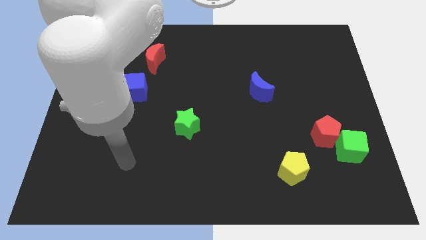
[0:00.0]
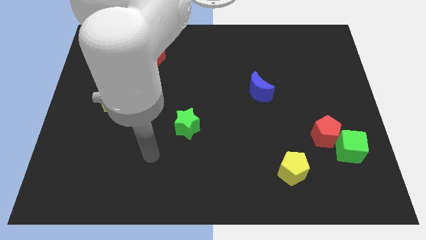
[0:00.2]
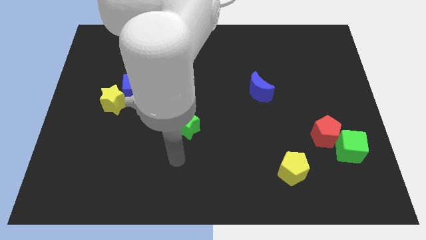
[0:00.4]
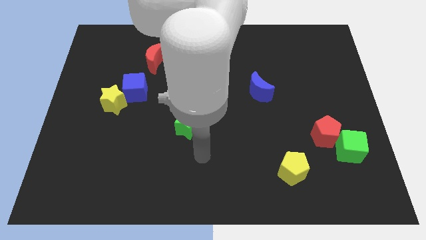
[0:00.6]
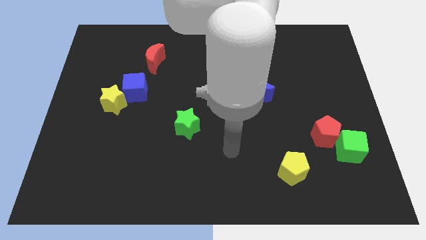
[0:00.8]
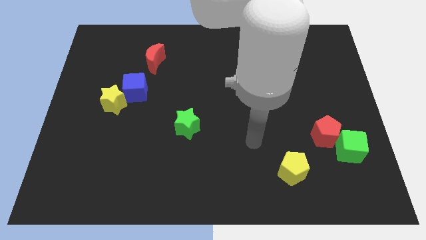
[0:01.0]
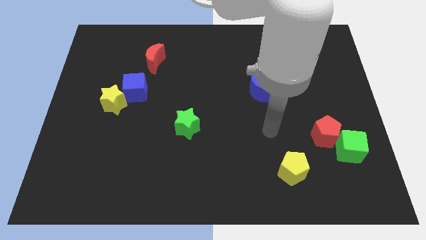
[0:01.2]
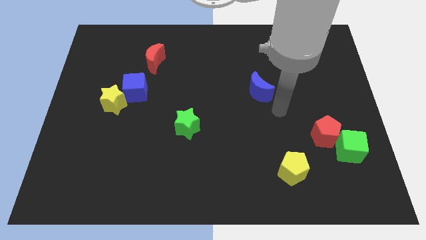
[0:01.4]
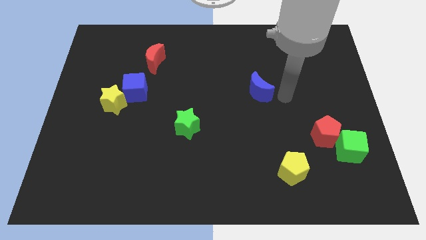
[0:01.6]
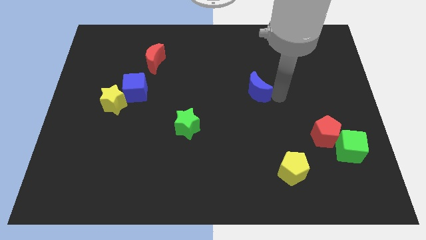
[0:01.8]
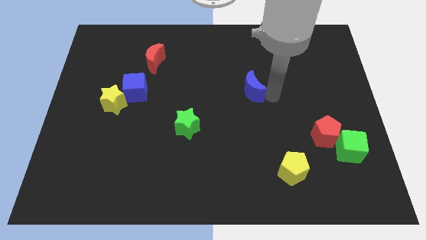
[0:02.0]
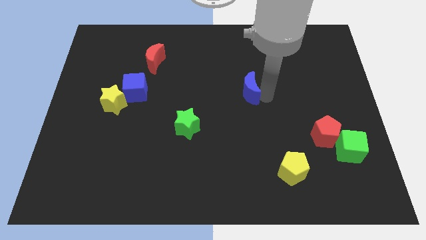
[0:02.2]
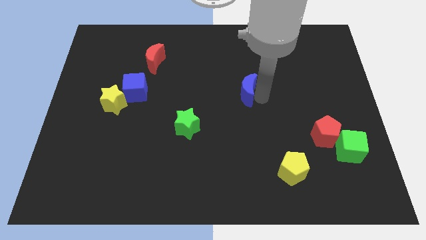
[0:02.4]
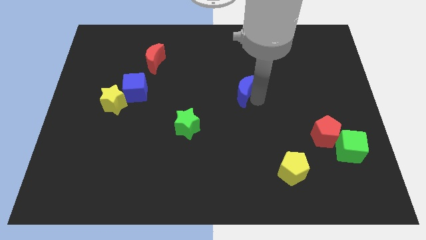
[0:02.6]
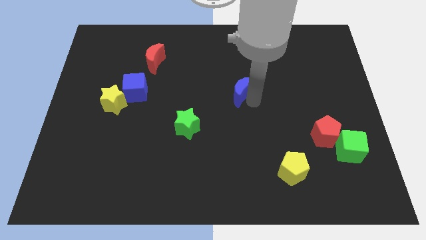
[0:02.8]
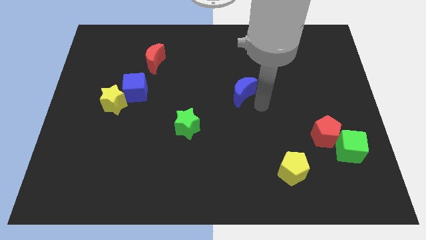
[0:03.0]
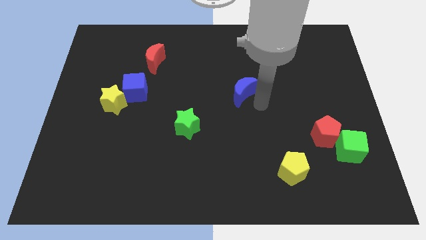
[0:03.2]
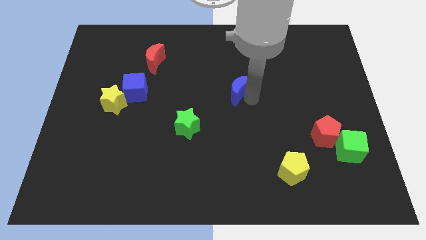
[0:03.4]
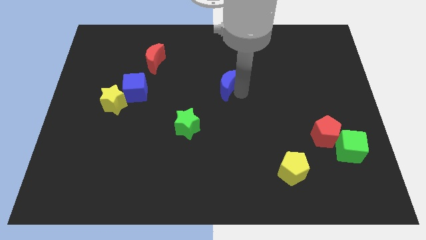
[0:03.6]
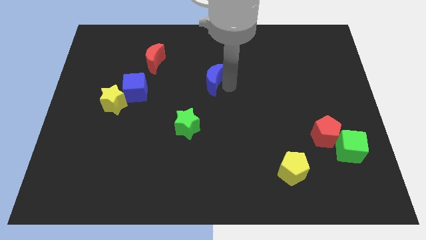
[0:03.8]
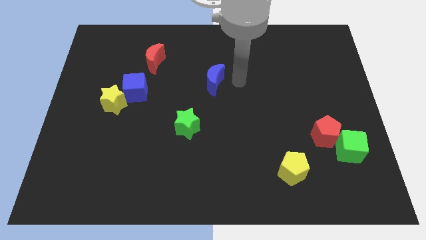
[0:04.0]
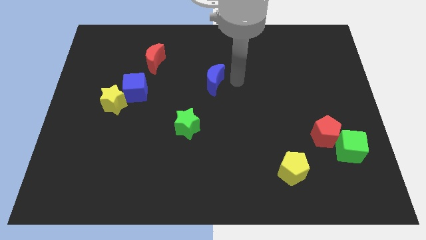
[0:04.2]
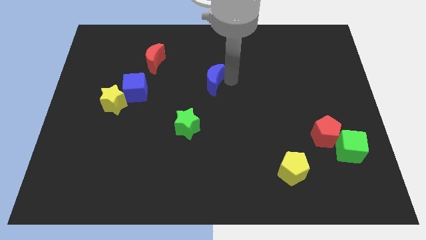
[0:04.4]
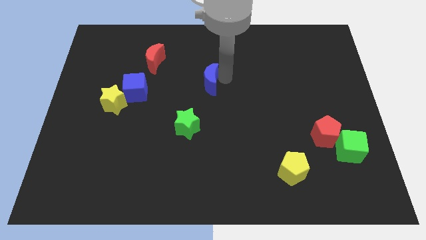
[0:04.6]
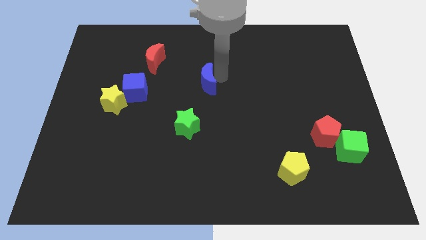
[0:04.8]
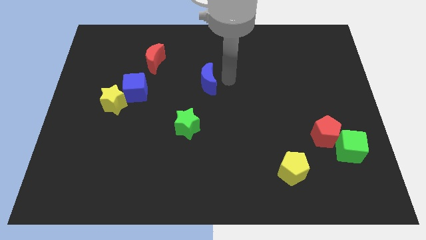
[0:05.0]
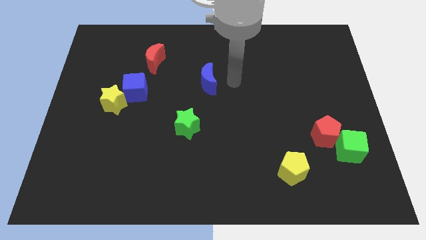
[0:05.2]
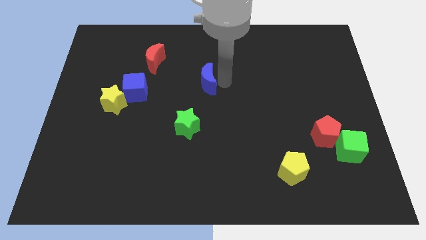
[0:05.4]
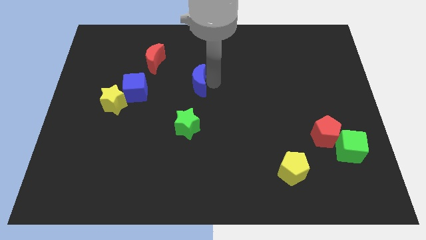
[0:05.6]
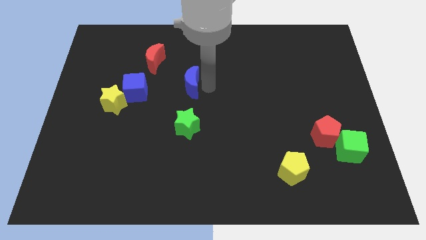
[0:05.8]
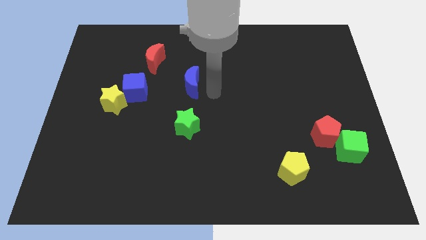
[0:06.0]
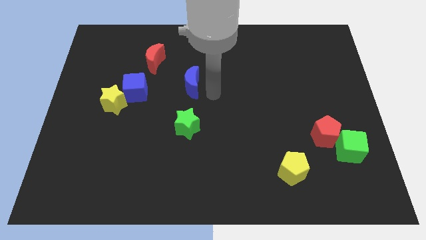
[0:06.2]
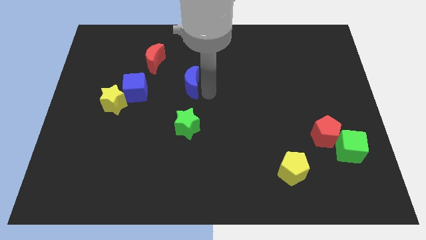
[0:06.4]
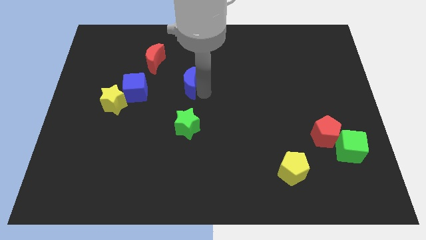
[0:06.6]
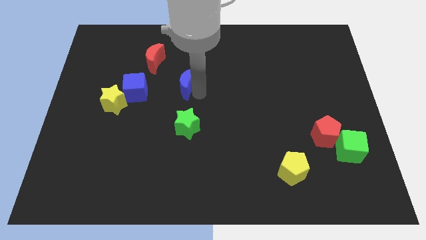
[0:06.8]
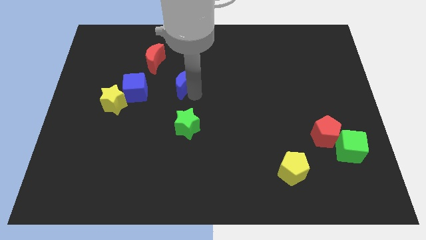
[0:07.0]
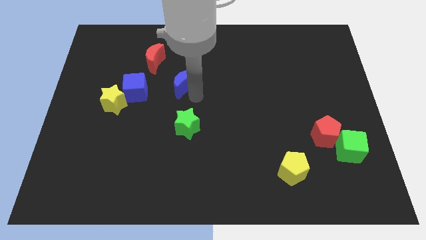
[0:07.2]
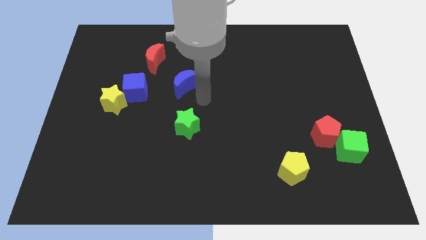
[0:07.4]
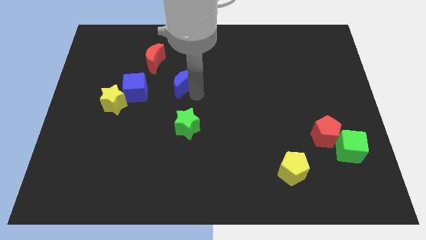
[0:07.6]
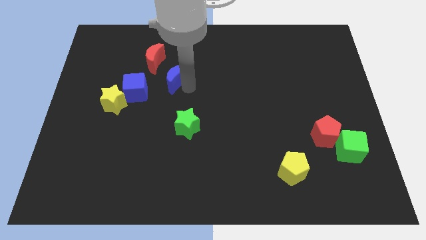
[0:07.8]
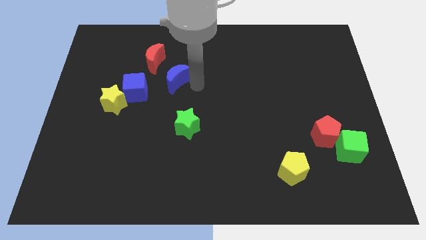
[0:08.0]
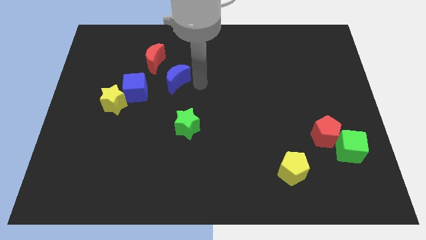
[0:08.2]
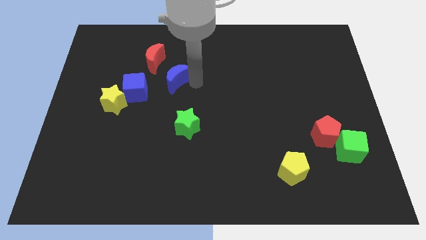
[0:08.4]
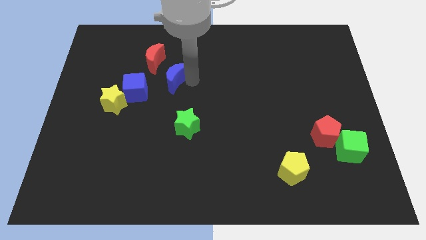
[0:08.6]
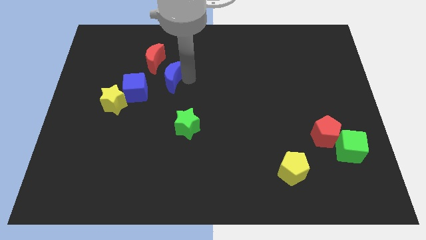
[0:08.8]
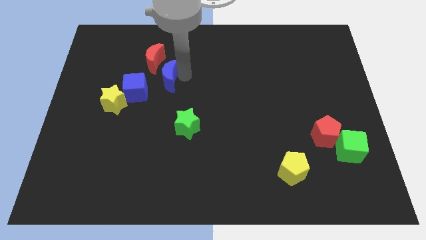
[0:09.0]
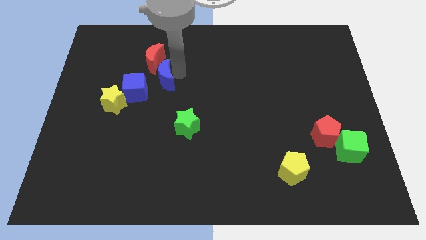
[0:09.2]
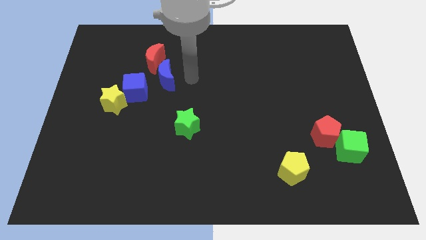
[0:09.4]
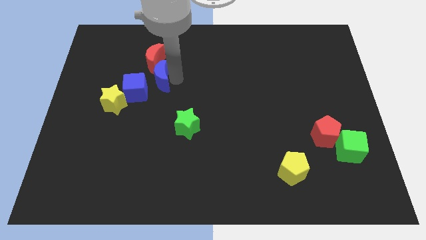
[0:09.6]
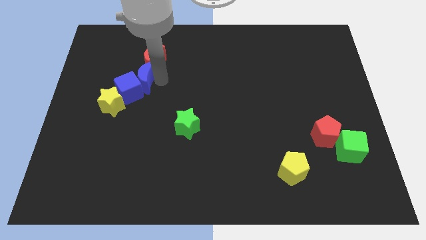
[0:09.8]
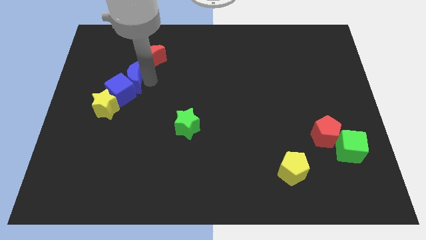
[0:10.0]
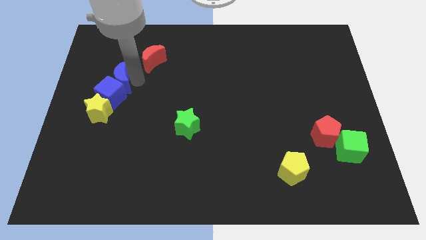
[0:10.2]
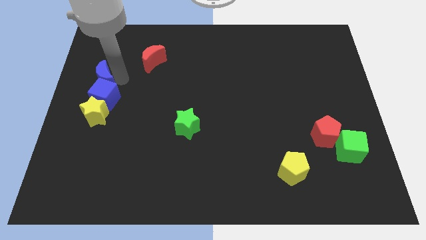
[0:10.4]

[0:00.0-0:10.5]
push the blue moon to the left side of the board

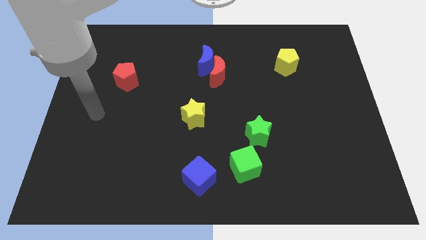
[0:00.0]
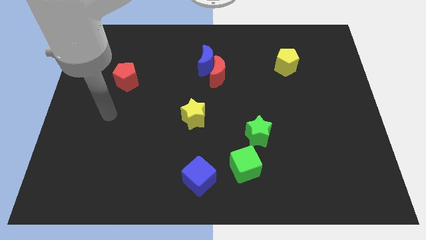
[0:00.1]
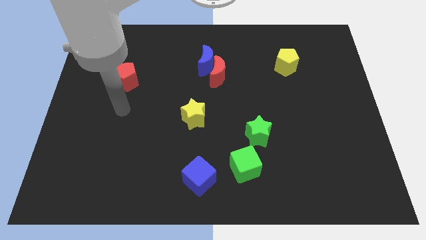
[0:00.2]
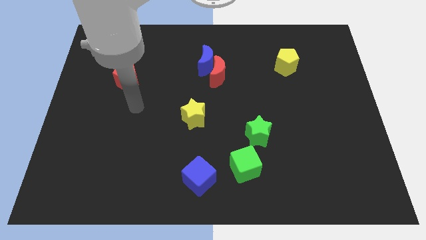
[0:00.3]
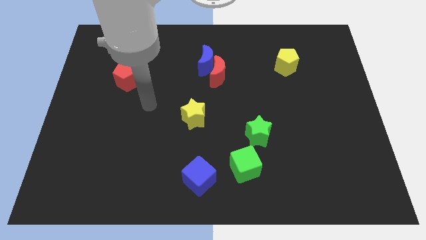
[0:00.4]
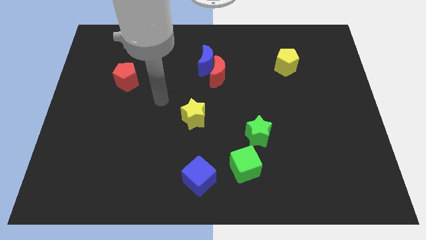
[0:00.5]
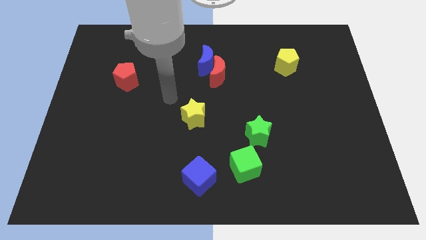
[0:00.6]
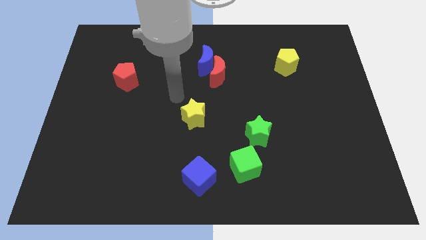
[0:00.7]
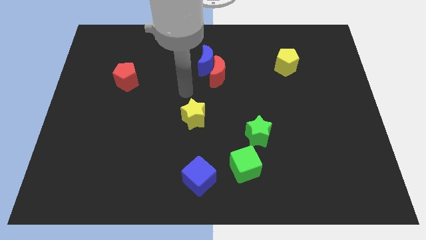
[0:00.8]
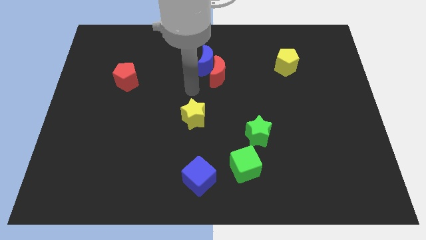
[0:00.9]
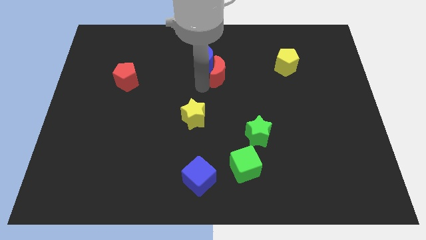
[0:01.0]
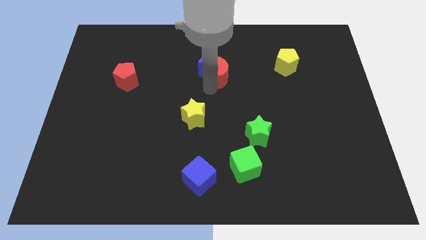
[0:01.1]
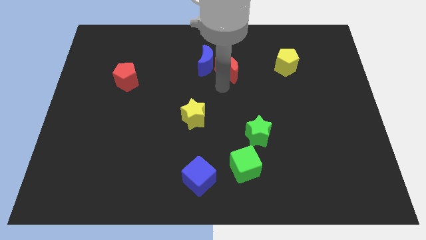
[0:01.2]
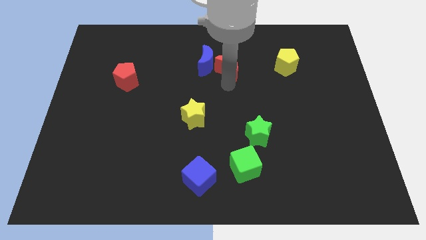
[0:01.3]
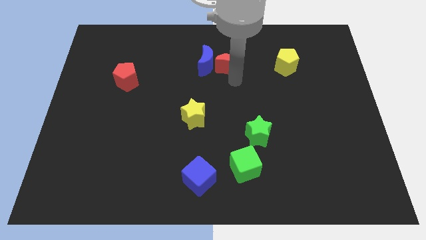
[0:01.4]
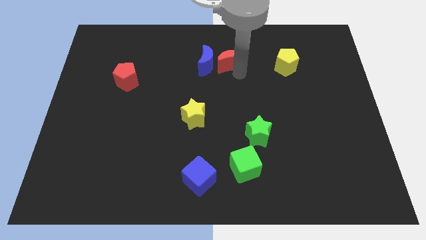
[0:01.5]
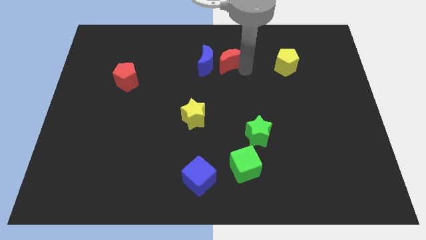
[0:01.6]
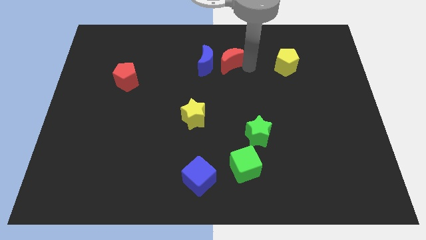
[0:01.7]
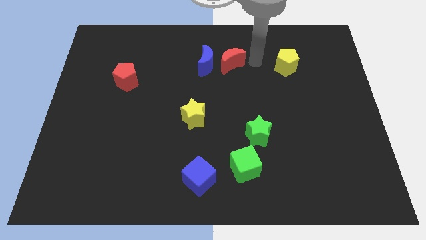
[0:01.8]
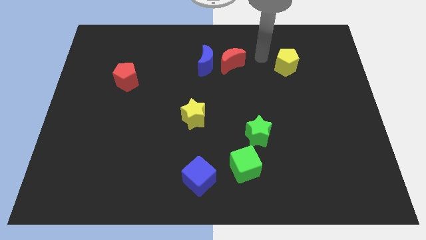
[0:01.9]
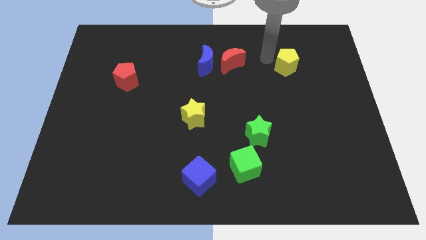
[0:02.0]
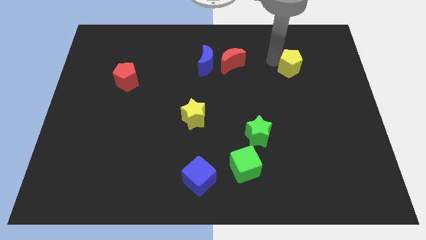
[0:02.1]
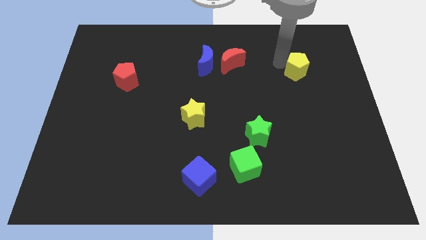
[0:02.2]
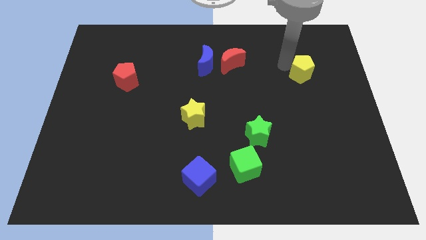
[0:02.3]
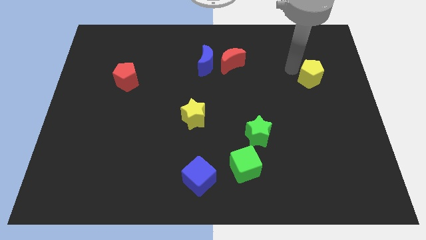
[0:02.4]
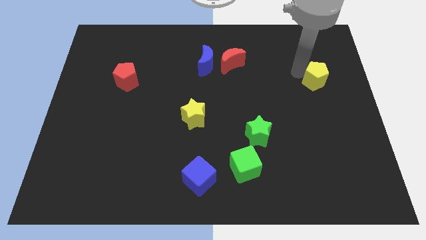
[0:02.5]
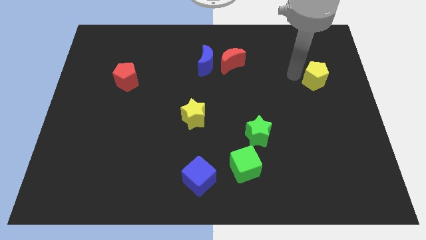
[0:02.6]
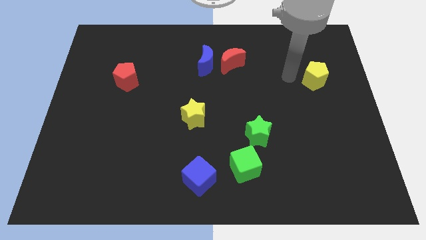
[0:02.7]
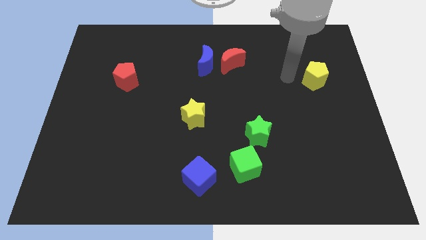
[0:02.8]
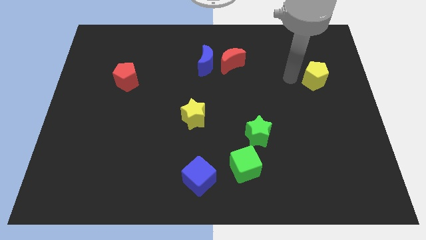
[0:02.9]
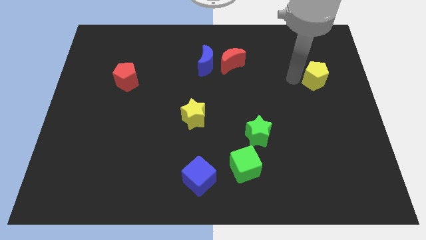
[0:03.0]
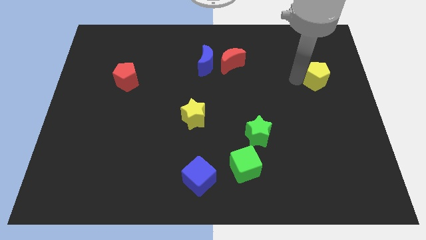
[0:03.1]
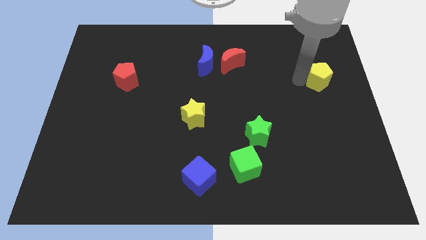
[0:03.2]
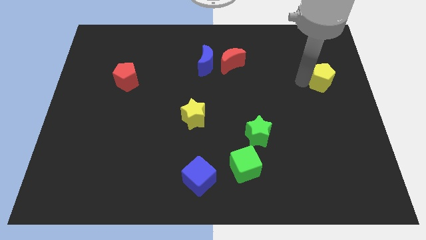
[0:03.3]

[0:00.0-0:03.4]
push the yellow pentagon to the right side of the board

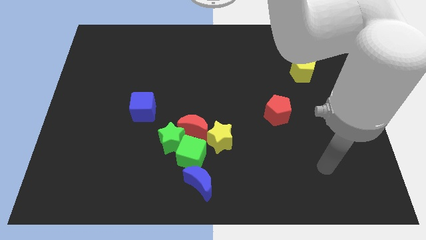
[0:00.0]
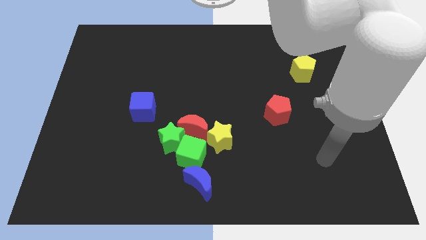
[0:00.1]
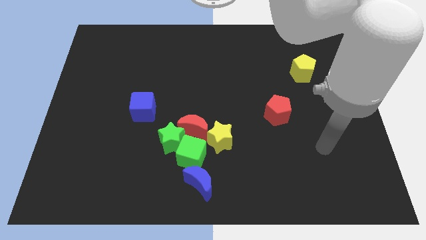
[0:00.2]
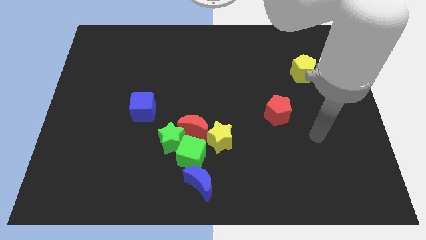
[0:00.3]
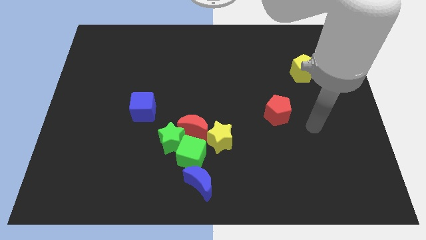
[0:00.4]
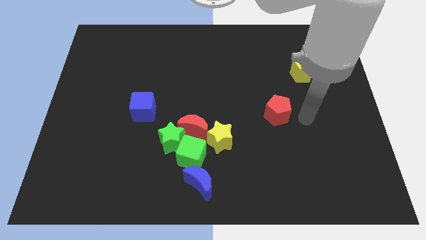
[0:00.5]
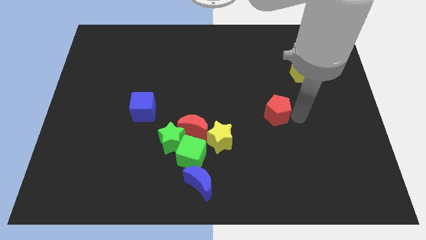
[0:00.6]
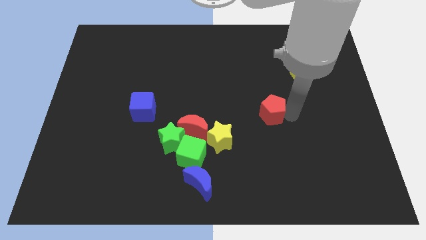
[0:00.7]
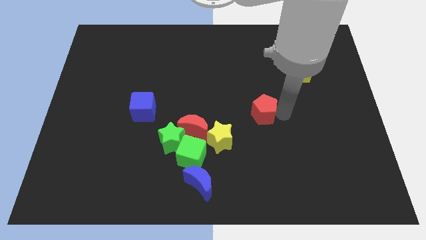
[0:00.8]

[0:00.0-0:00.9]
move the red pentagon to the center of the board
